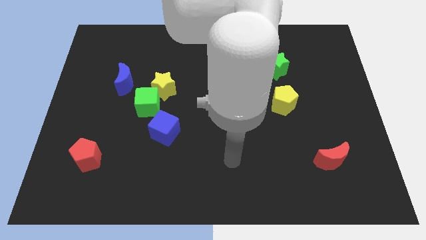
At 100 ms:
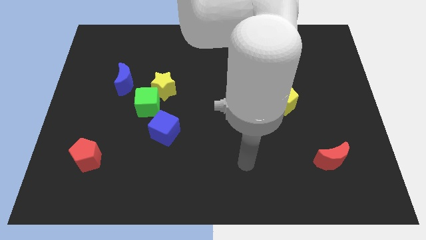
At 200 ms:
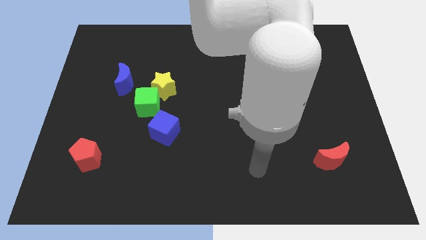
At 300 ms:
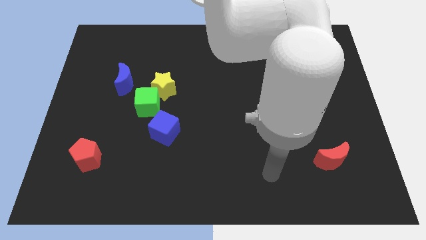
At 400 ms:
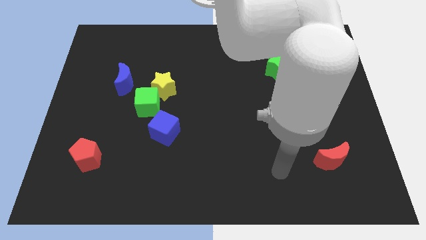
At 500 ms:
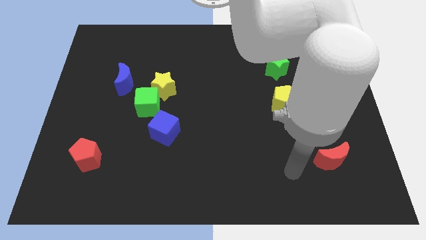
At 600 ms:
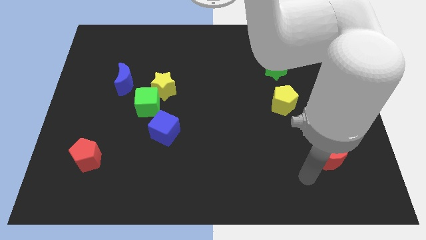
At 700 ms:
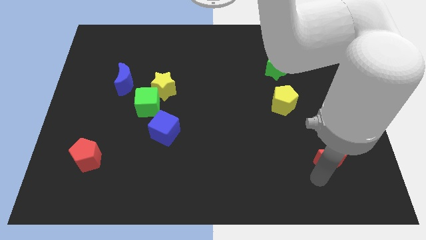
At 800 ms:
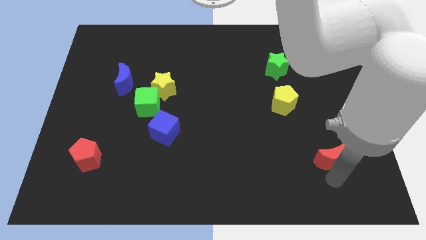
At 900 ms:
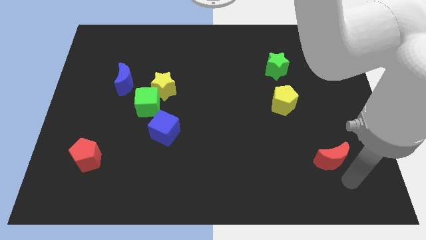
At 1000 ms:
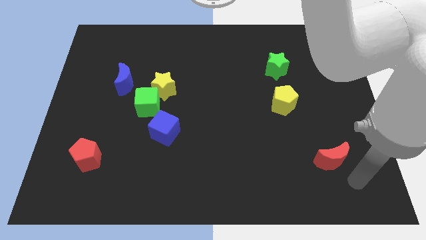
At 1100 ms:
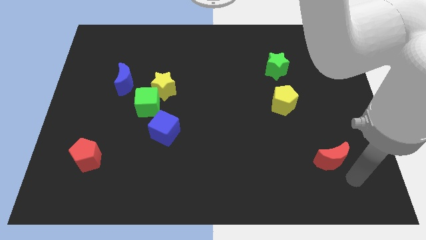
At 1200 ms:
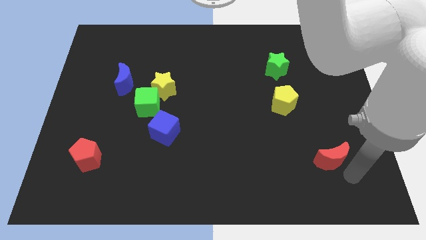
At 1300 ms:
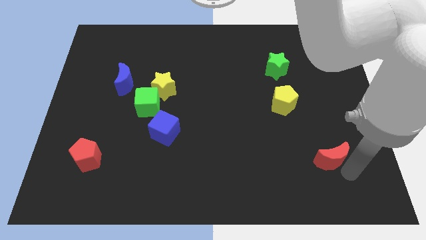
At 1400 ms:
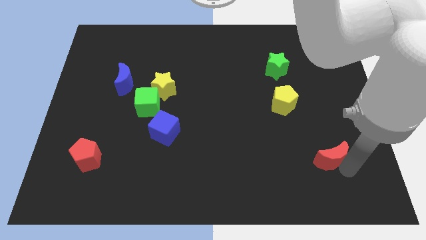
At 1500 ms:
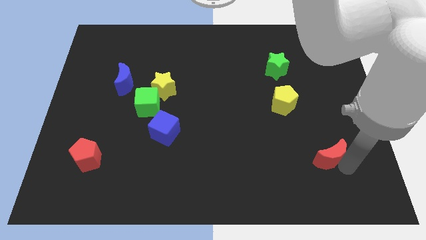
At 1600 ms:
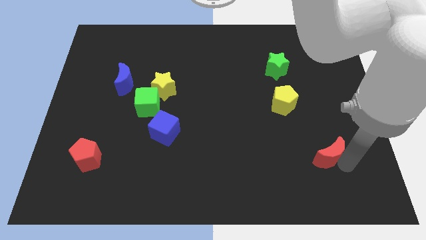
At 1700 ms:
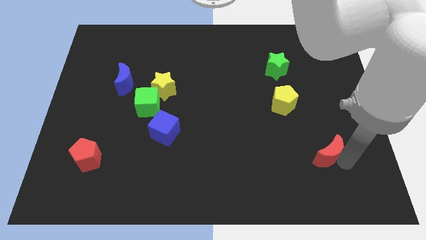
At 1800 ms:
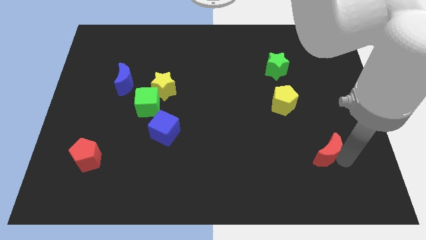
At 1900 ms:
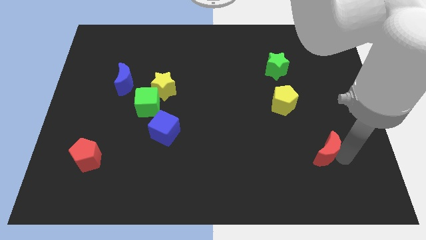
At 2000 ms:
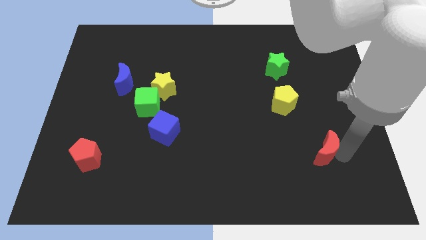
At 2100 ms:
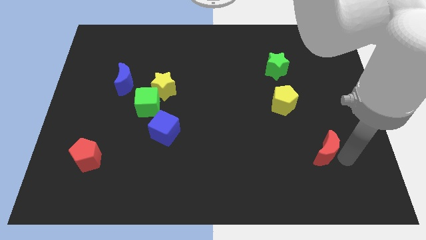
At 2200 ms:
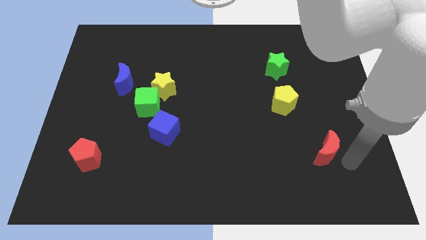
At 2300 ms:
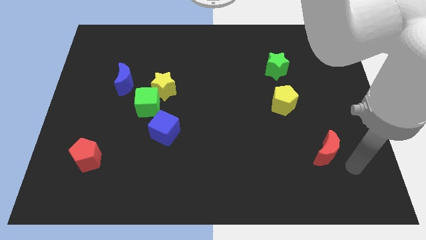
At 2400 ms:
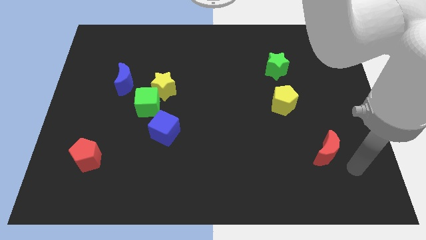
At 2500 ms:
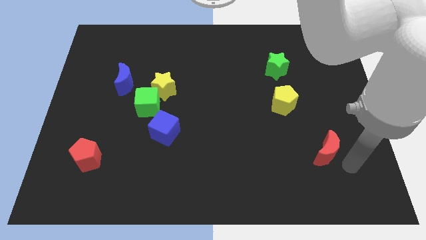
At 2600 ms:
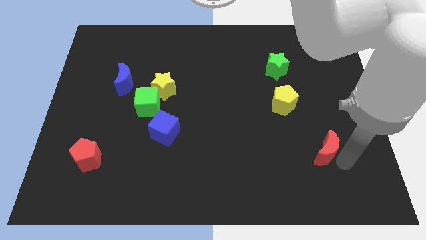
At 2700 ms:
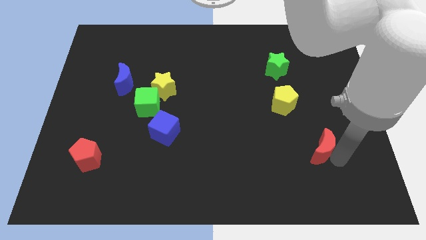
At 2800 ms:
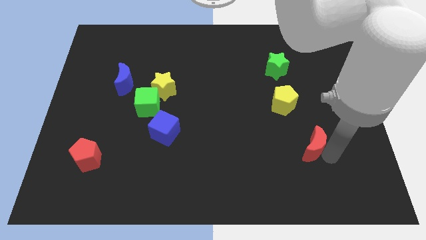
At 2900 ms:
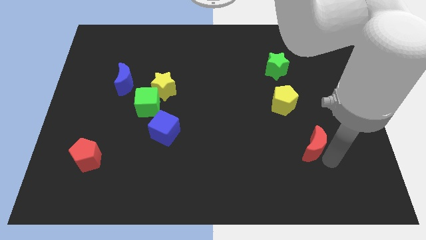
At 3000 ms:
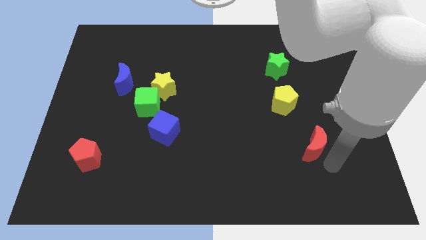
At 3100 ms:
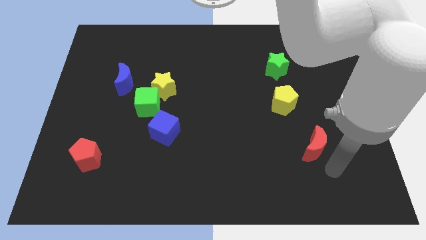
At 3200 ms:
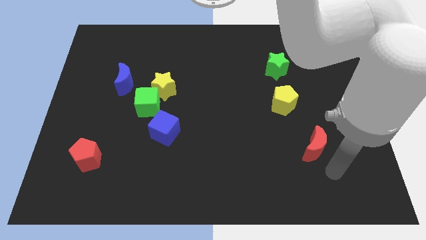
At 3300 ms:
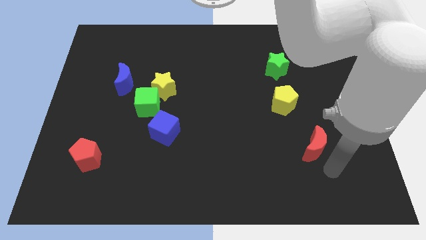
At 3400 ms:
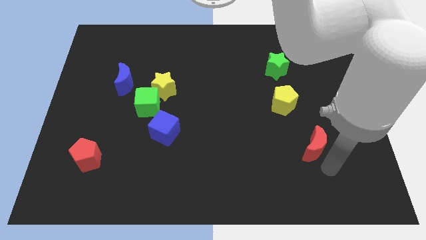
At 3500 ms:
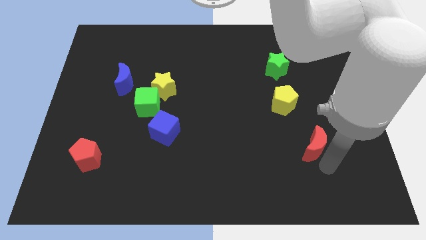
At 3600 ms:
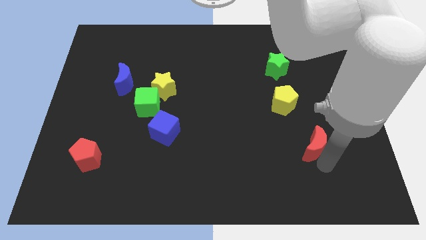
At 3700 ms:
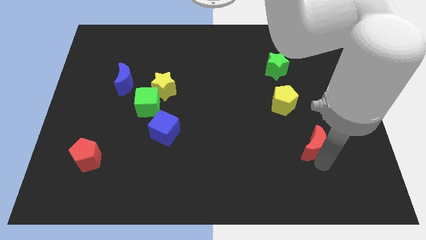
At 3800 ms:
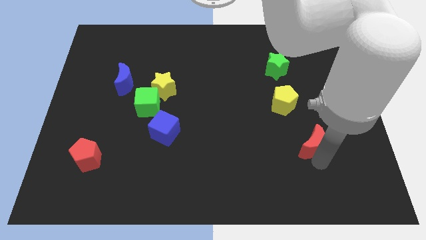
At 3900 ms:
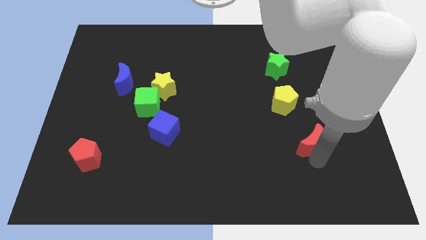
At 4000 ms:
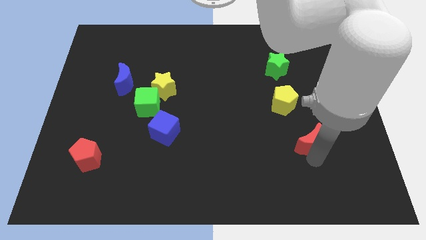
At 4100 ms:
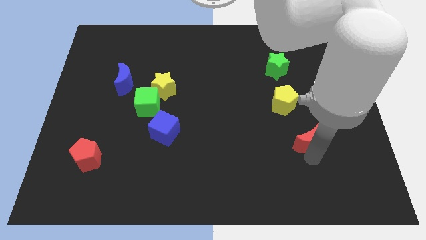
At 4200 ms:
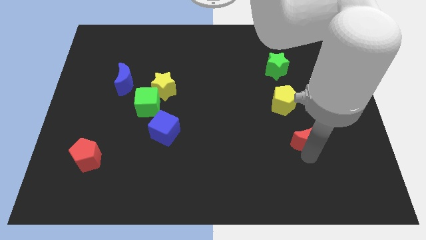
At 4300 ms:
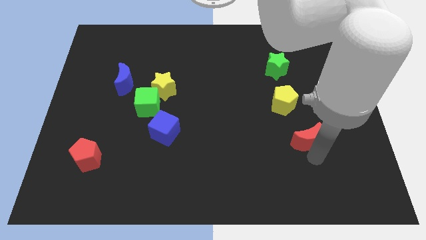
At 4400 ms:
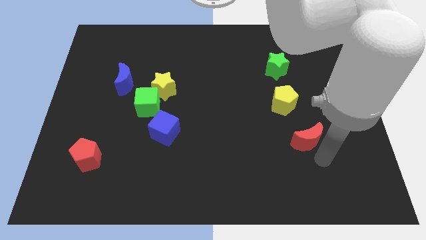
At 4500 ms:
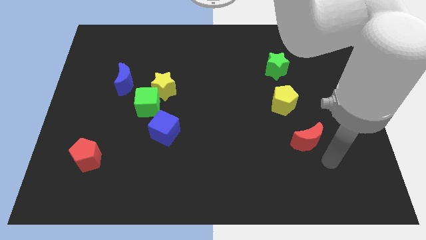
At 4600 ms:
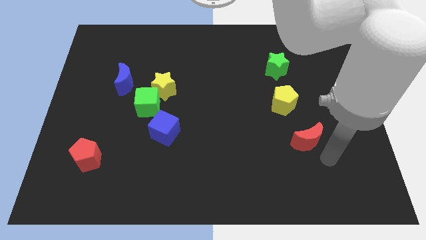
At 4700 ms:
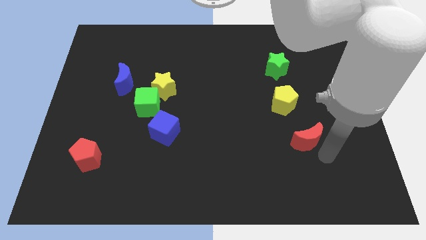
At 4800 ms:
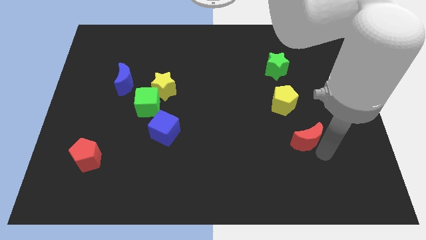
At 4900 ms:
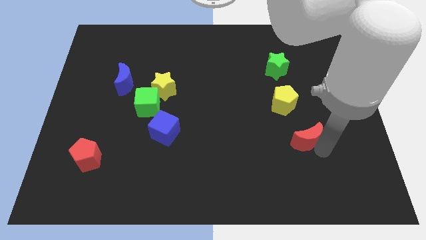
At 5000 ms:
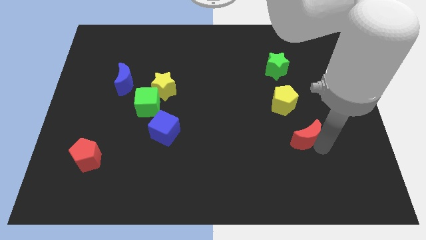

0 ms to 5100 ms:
slightly move the red moon diagonally upwards and left

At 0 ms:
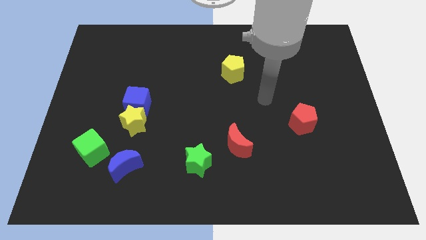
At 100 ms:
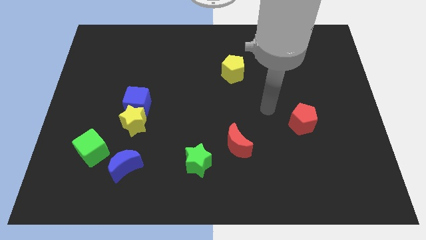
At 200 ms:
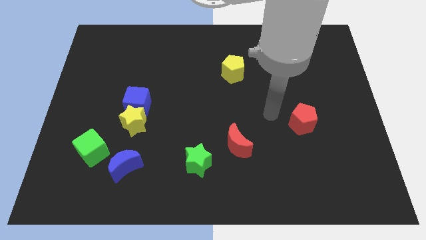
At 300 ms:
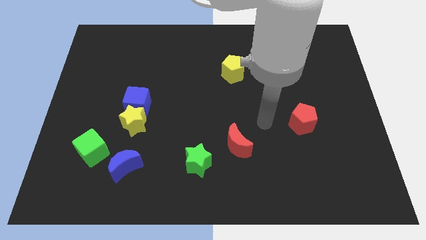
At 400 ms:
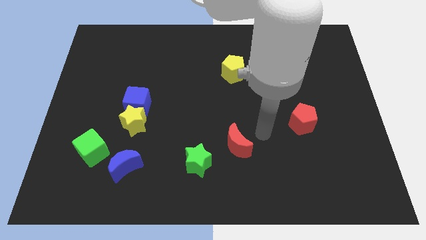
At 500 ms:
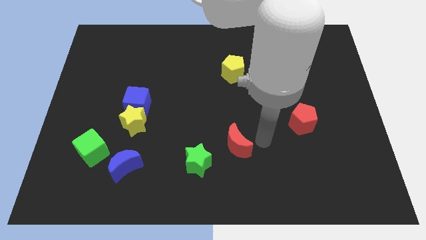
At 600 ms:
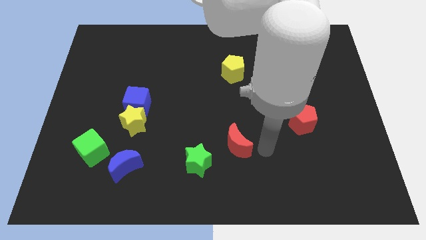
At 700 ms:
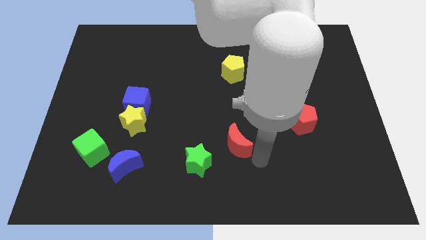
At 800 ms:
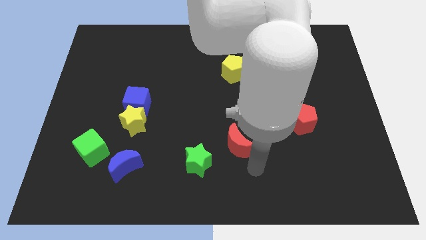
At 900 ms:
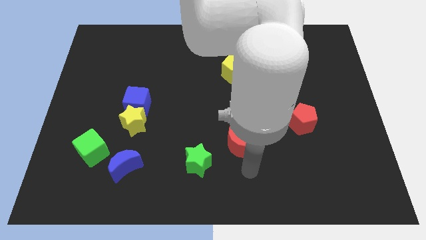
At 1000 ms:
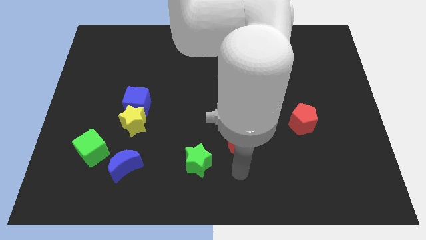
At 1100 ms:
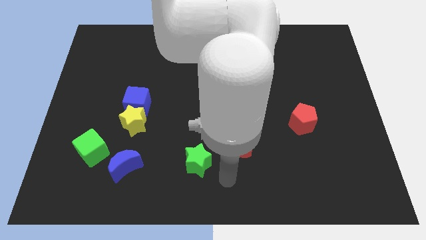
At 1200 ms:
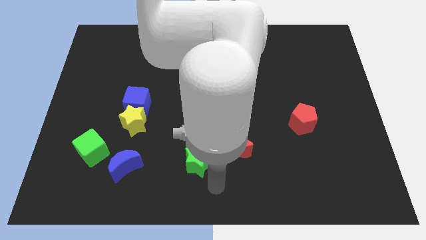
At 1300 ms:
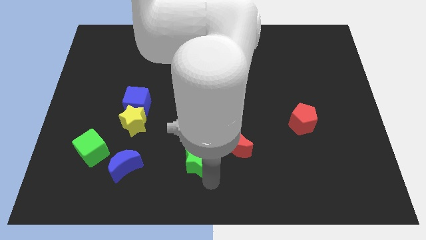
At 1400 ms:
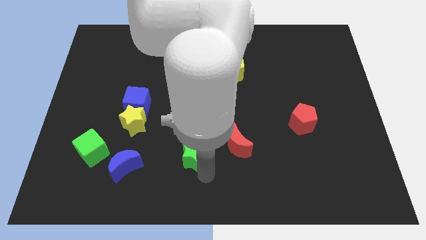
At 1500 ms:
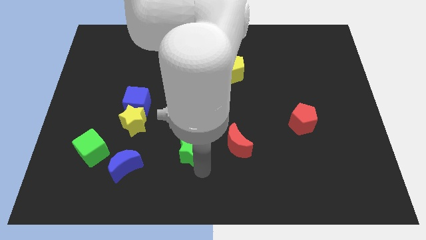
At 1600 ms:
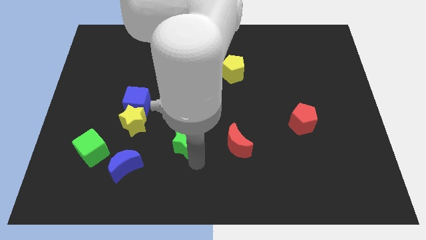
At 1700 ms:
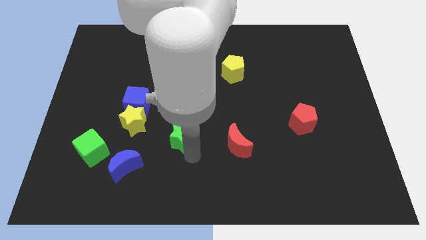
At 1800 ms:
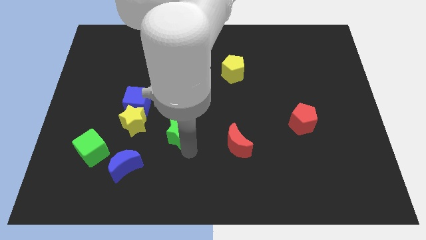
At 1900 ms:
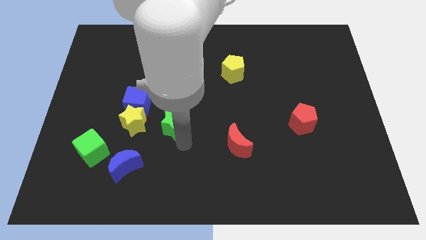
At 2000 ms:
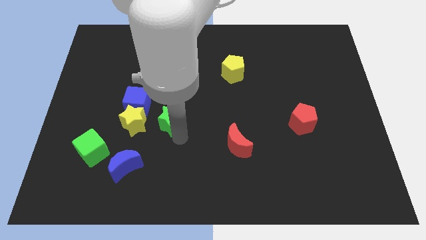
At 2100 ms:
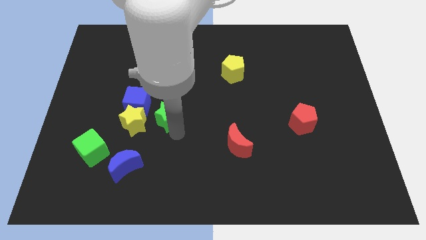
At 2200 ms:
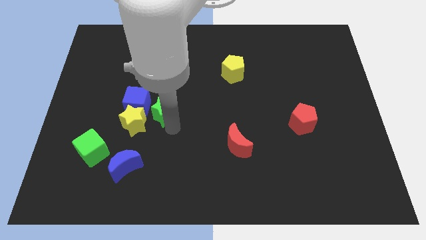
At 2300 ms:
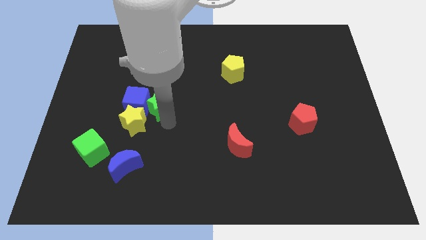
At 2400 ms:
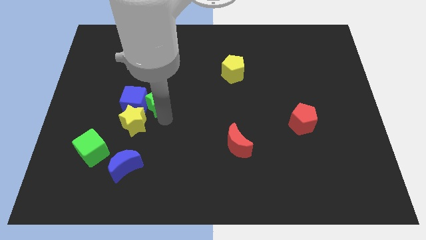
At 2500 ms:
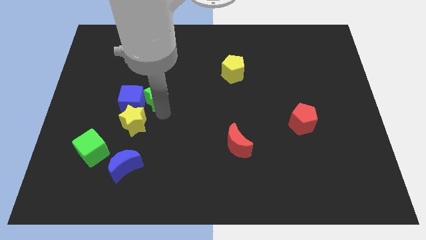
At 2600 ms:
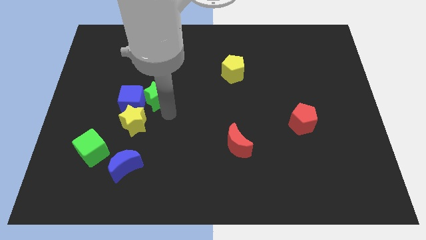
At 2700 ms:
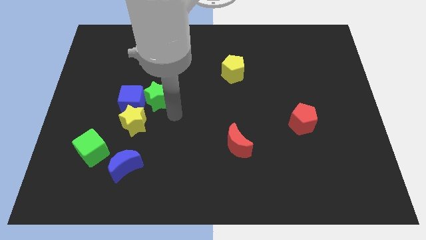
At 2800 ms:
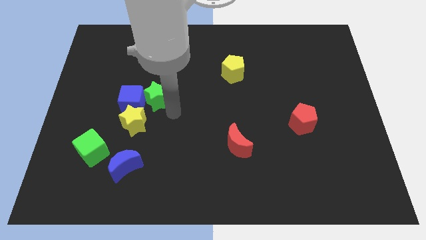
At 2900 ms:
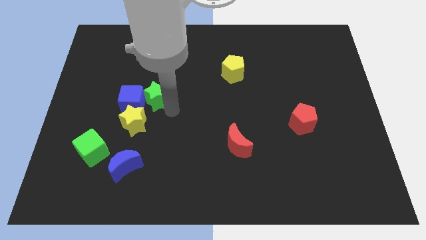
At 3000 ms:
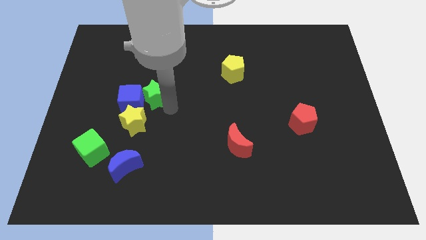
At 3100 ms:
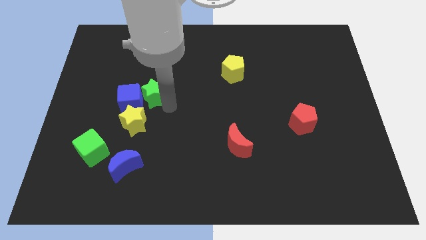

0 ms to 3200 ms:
move the green star up and to the left

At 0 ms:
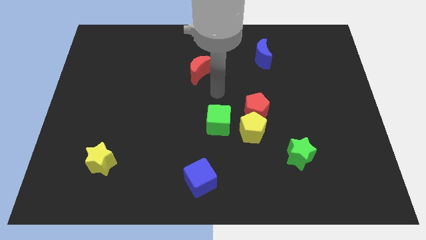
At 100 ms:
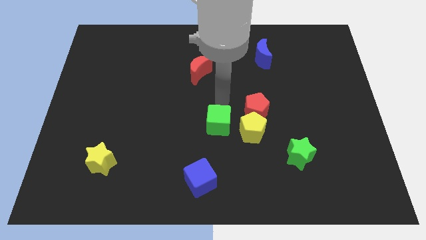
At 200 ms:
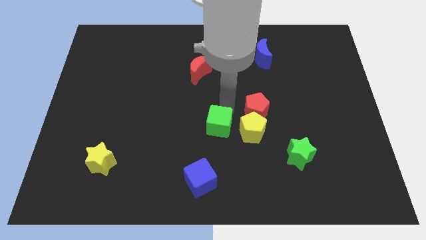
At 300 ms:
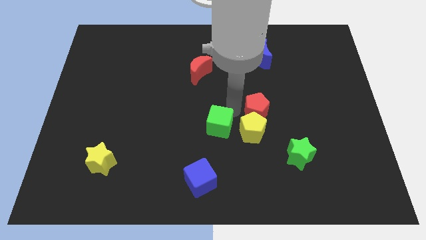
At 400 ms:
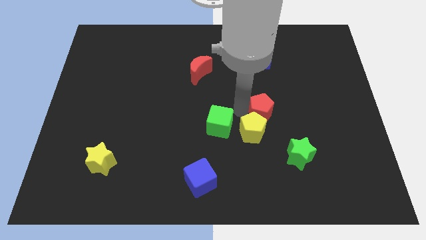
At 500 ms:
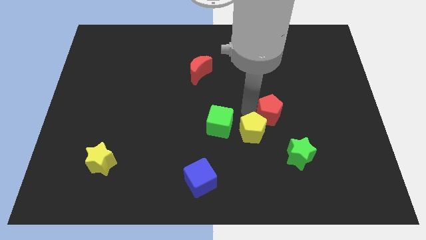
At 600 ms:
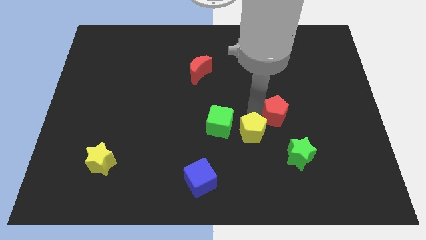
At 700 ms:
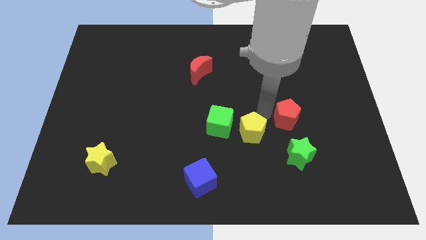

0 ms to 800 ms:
push the red pentagon a little bit to the right
